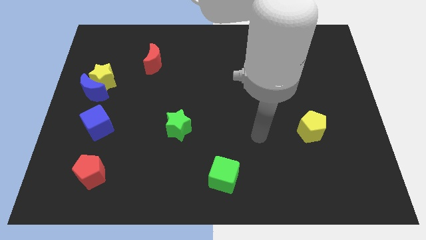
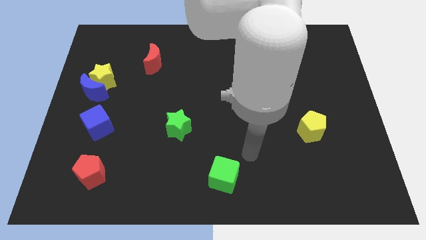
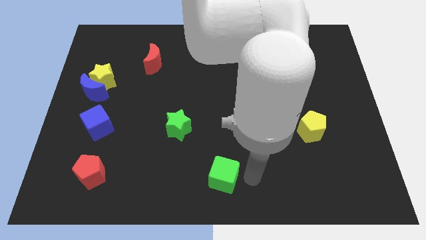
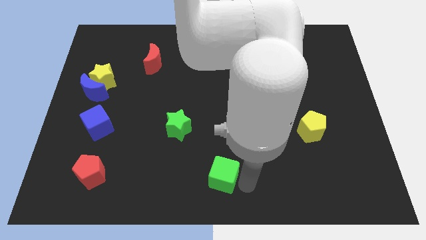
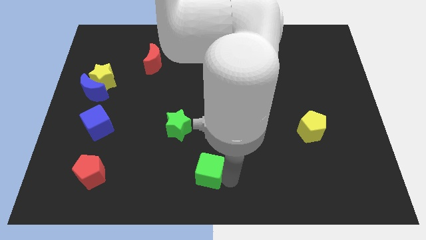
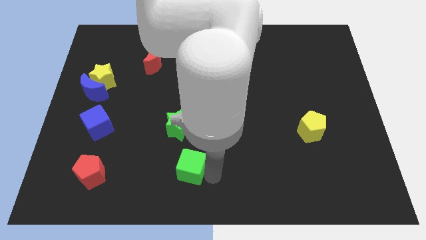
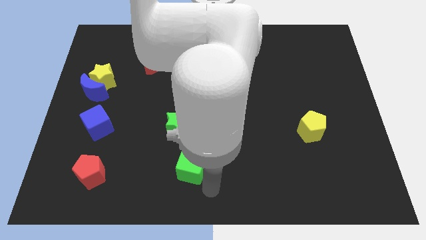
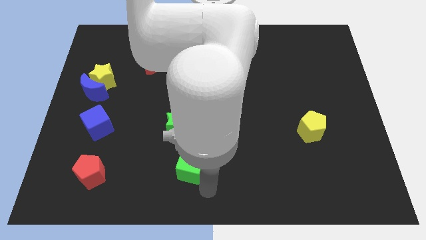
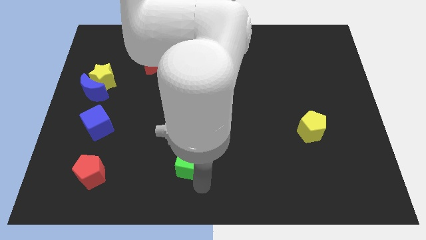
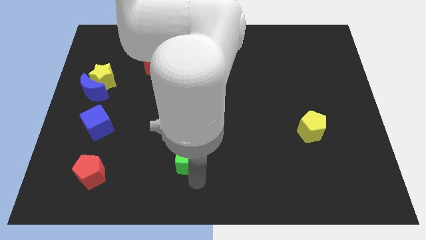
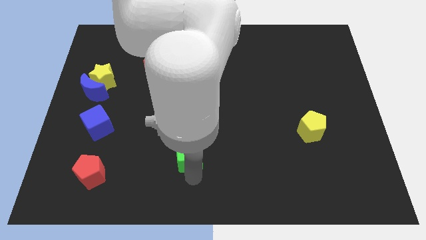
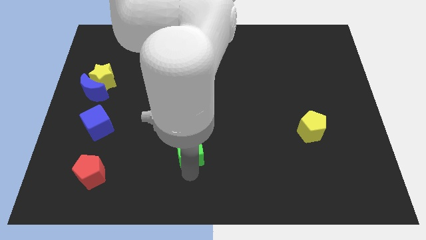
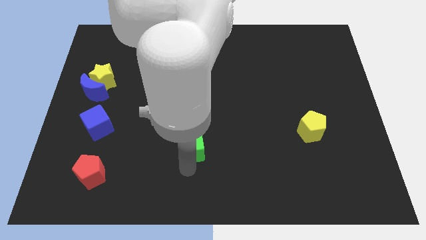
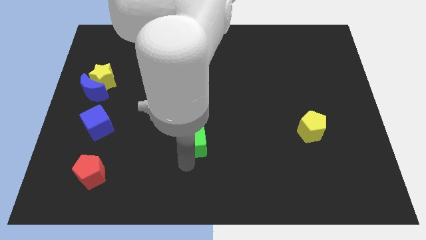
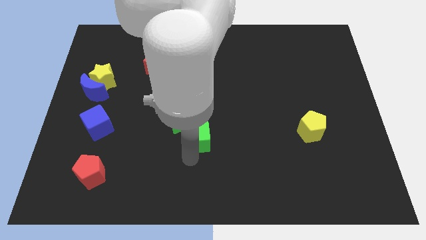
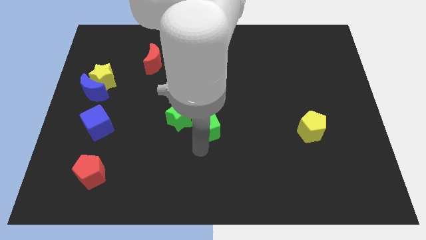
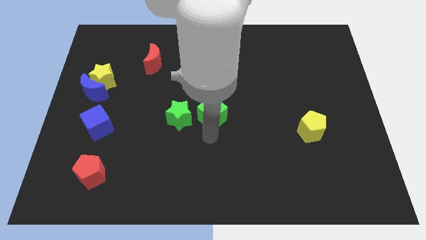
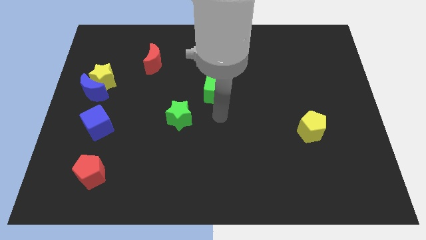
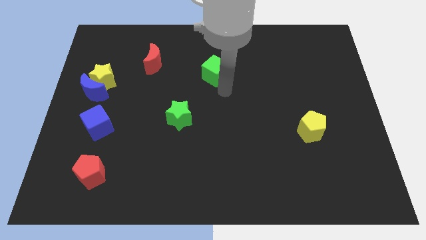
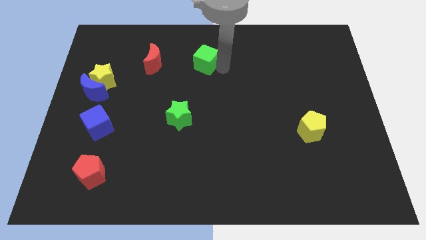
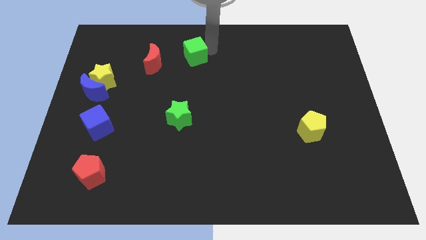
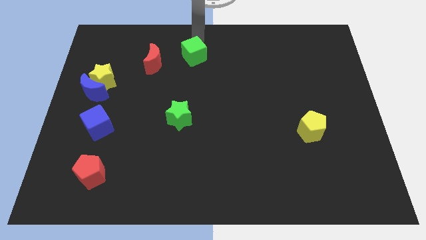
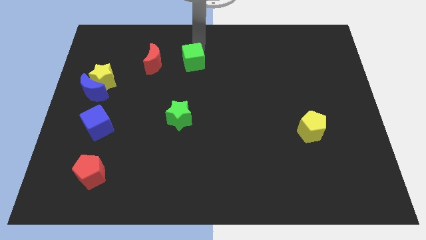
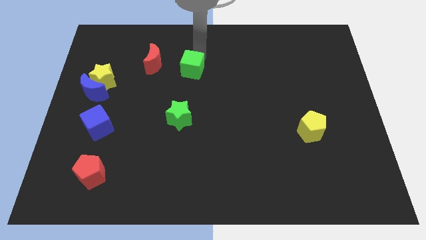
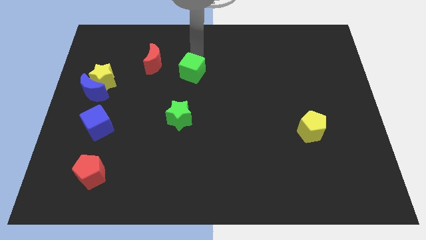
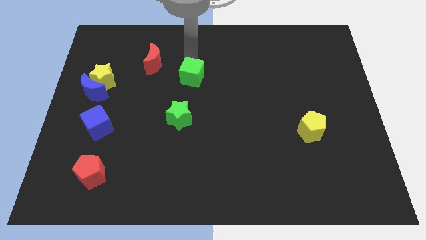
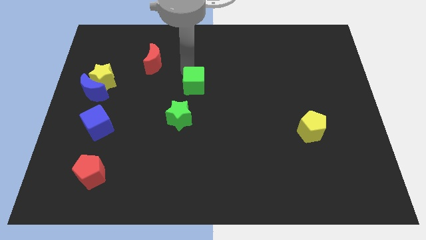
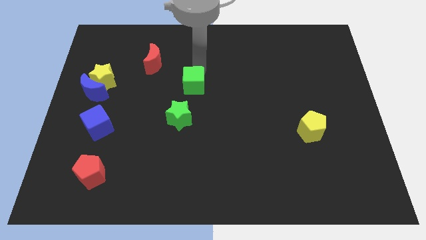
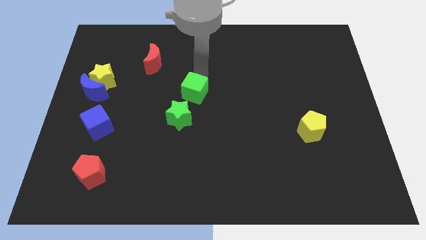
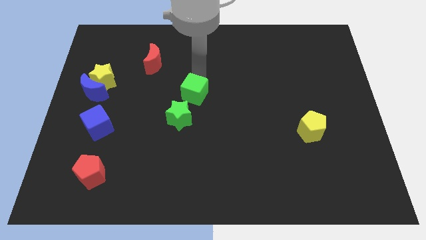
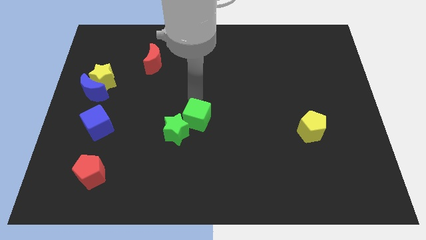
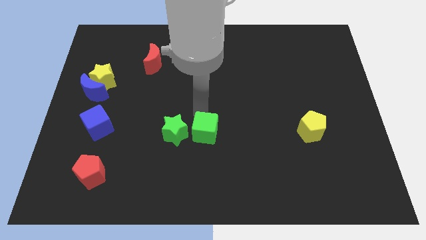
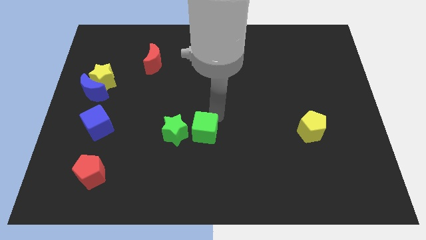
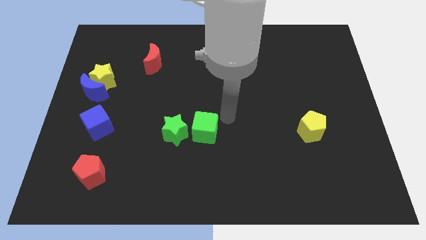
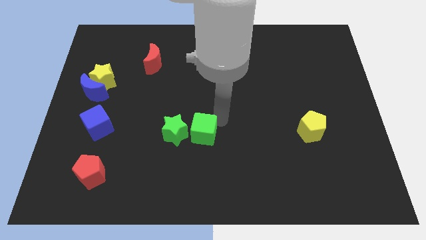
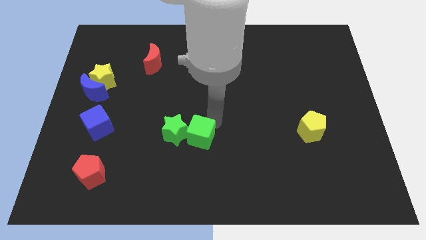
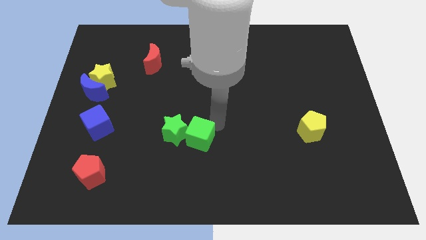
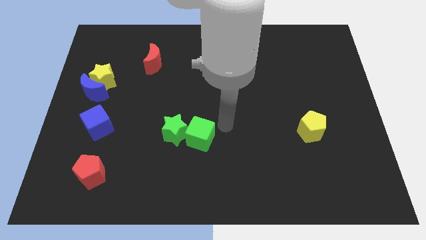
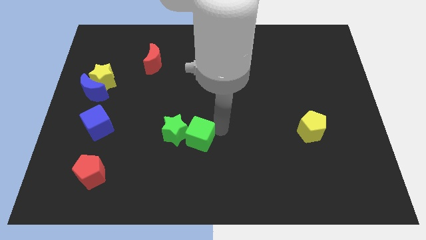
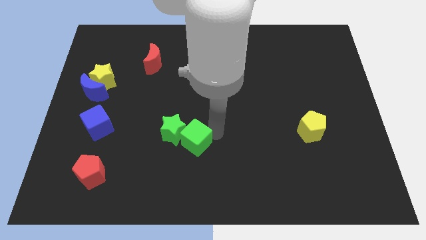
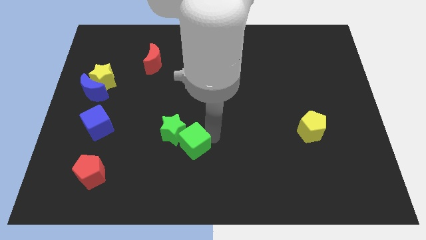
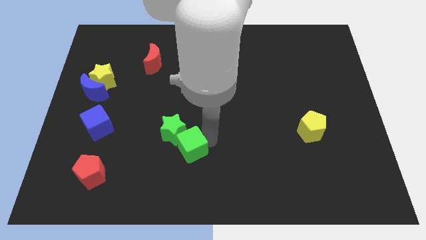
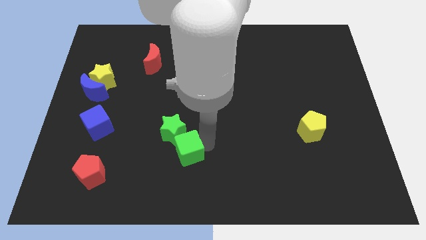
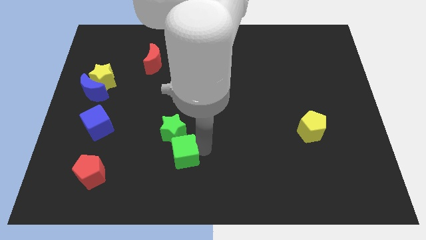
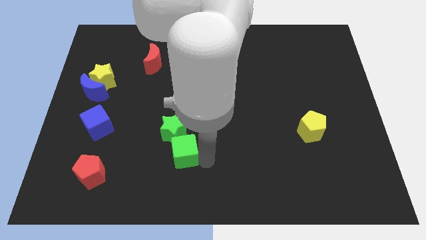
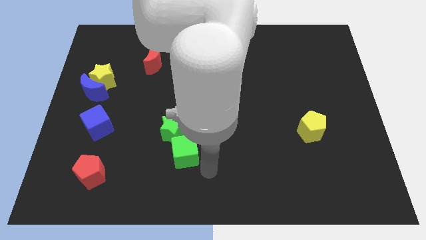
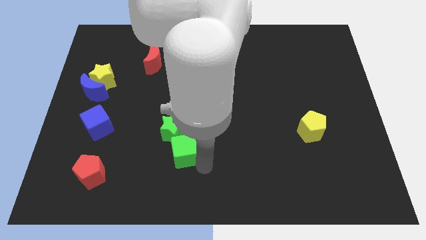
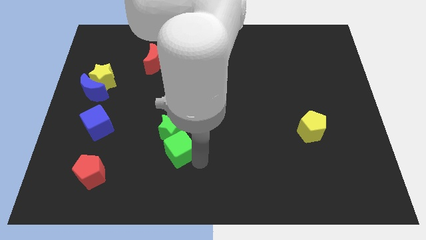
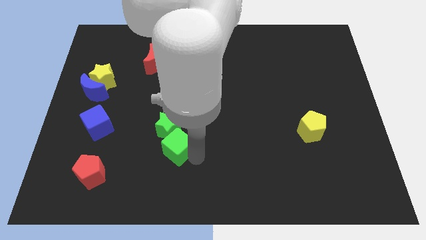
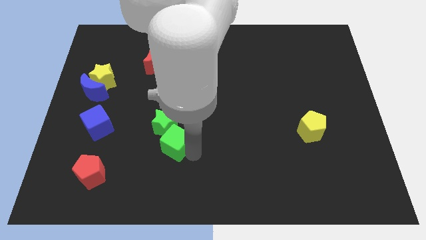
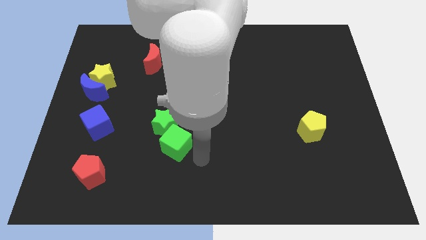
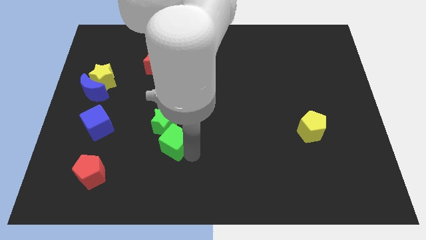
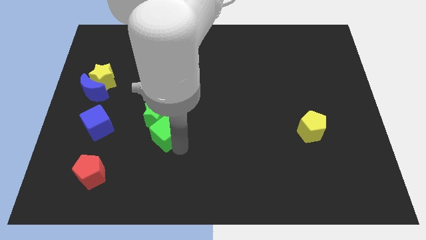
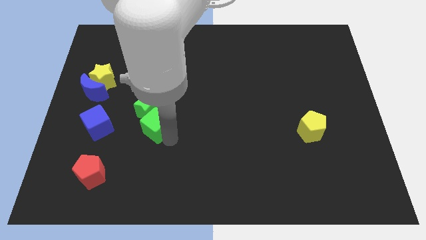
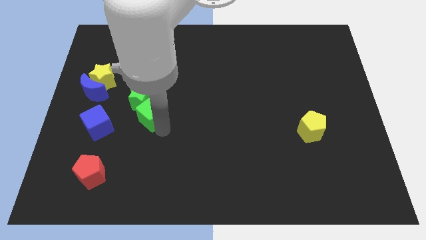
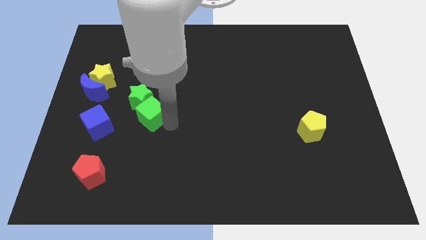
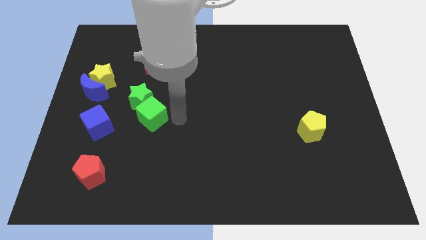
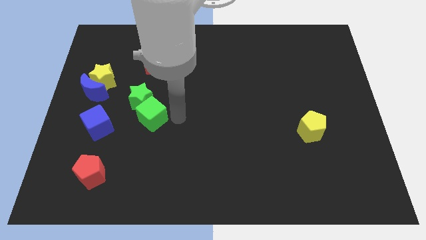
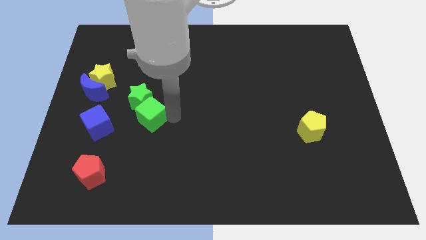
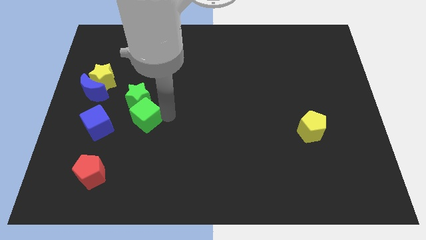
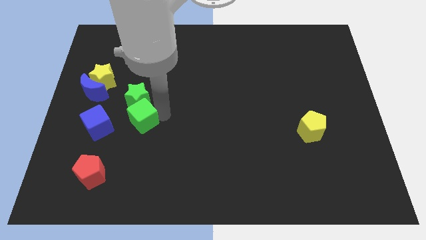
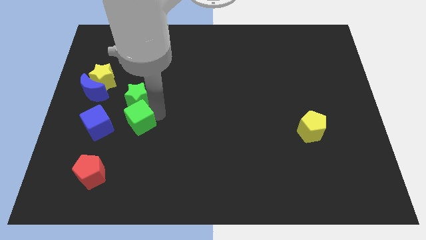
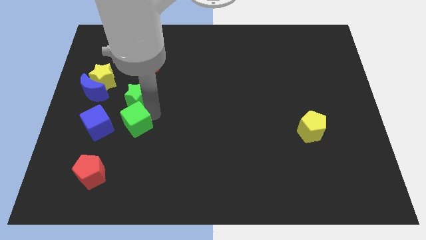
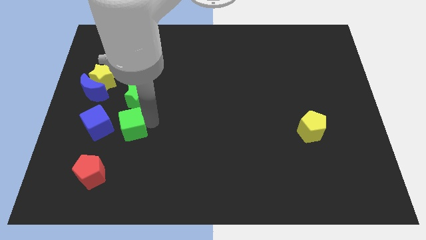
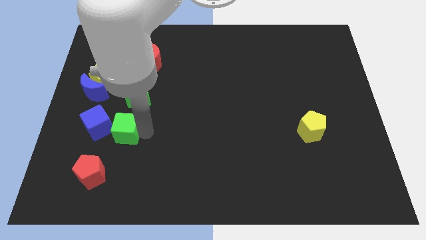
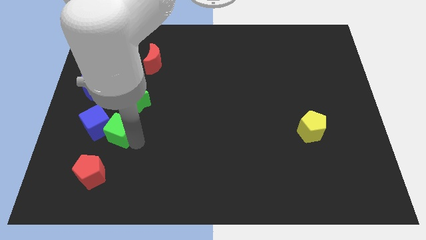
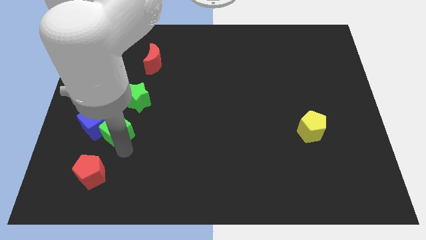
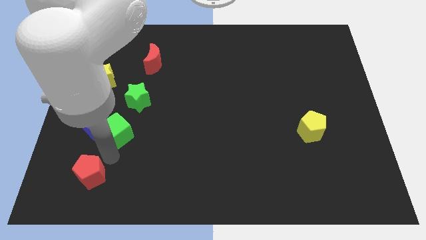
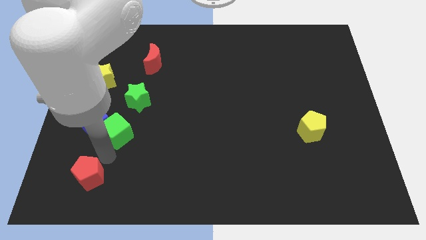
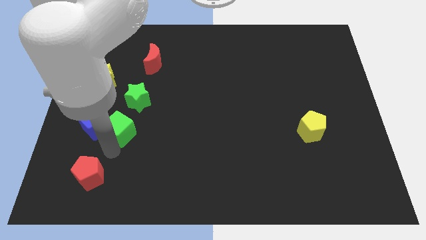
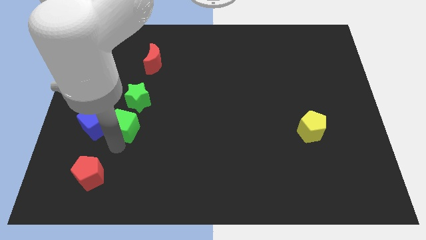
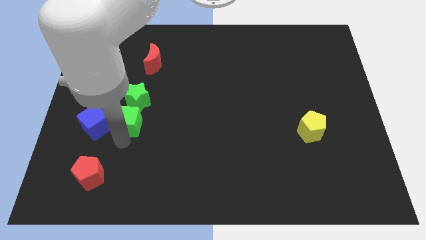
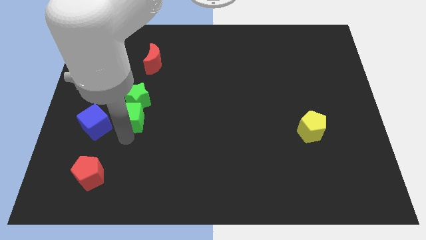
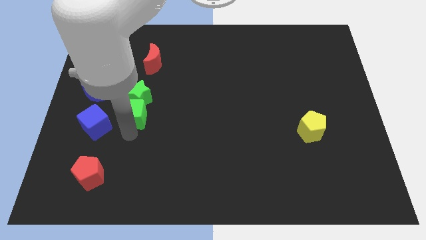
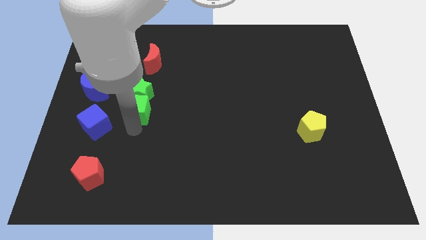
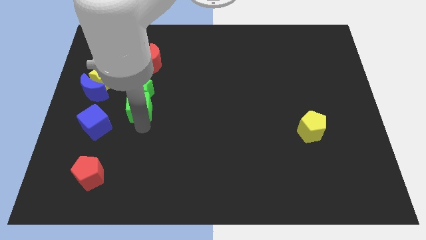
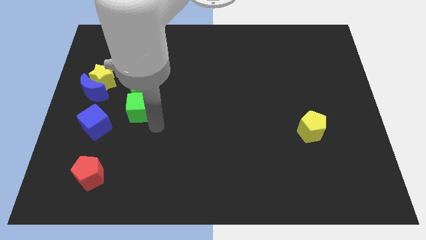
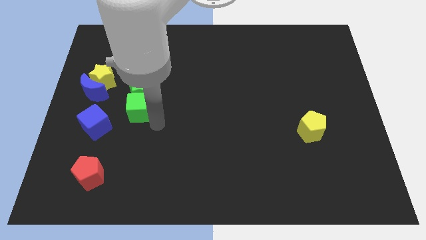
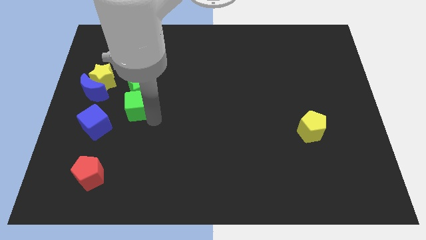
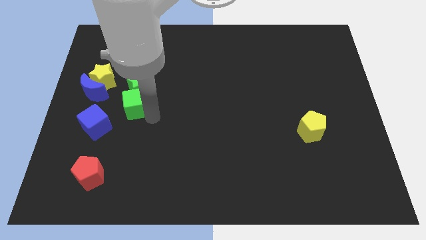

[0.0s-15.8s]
move the green cube diagonally down and to the right of the yellow star
